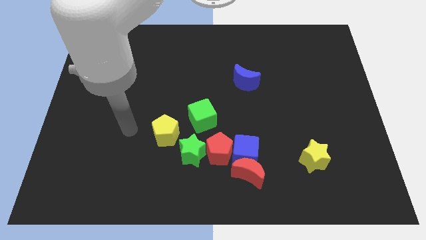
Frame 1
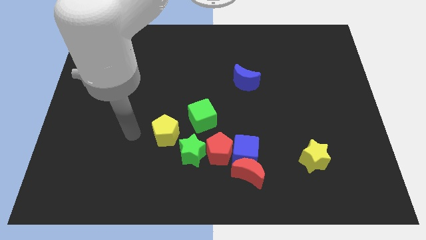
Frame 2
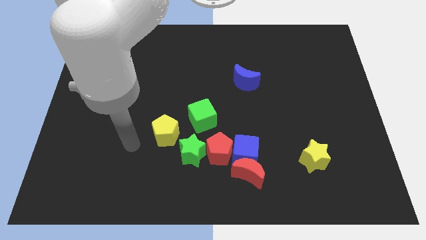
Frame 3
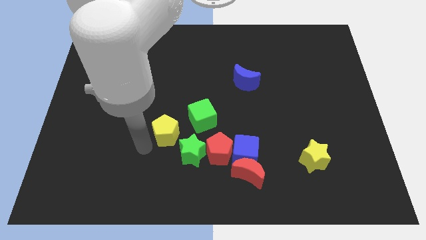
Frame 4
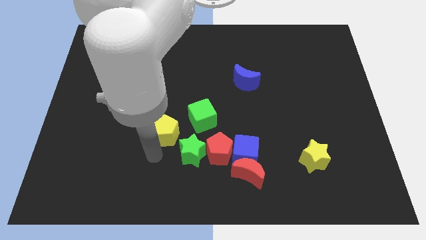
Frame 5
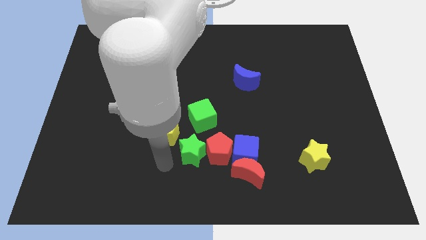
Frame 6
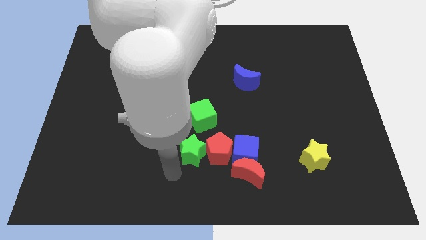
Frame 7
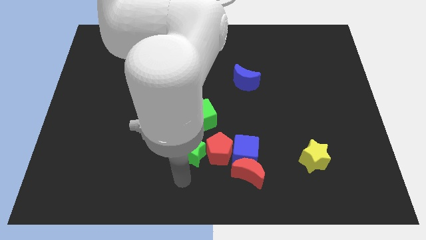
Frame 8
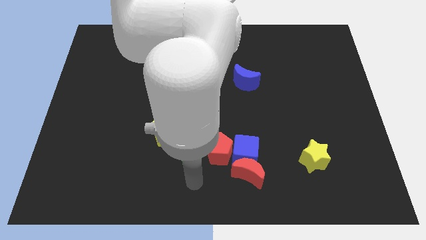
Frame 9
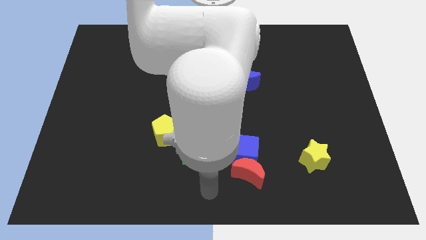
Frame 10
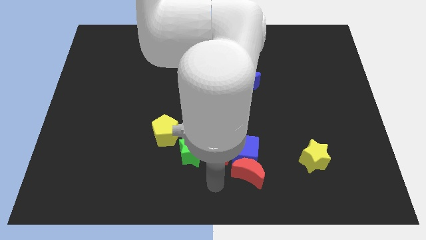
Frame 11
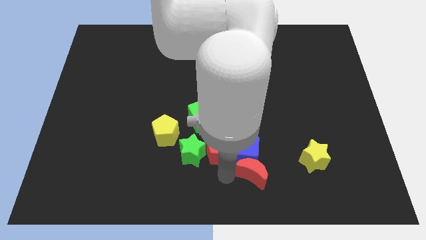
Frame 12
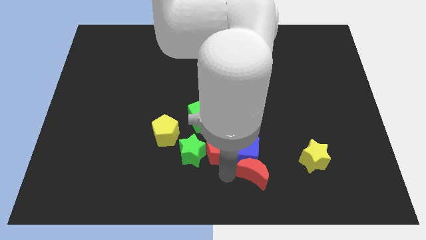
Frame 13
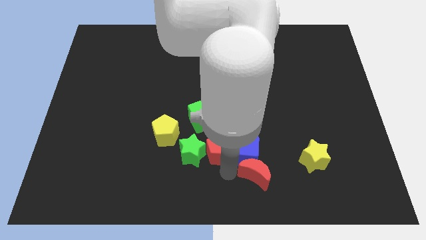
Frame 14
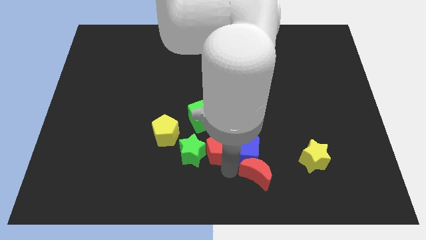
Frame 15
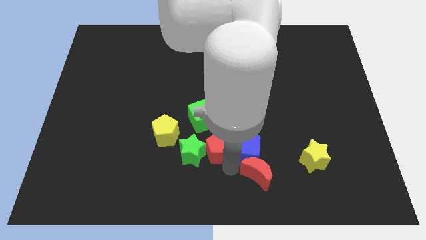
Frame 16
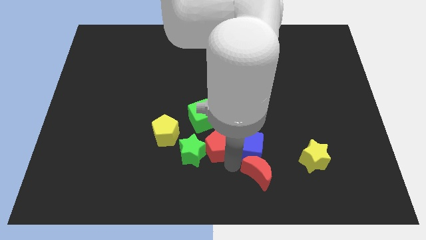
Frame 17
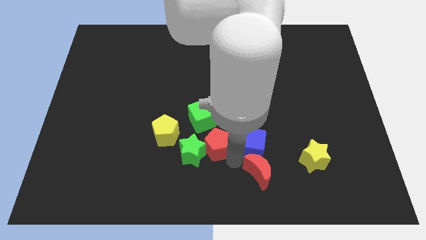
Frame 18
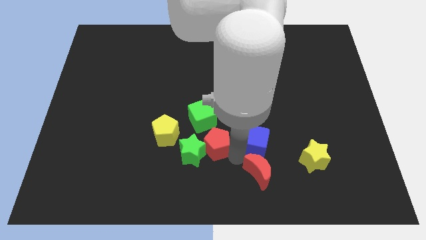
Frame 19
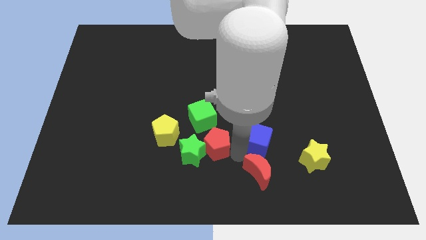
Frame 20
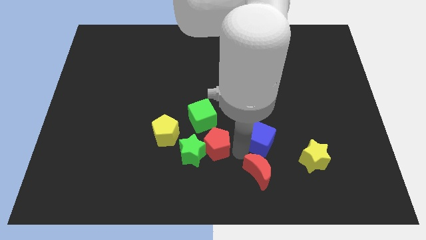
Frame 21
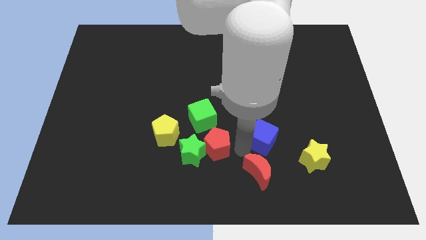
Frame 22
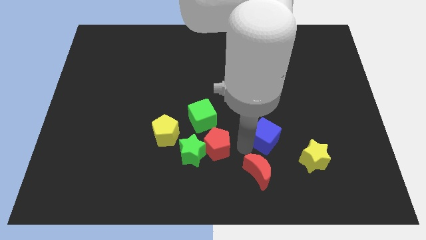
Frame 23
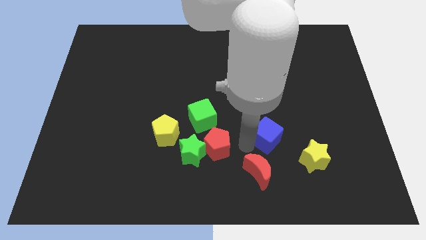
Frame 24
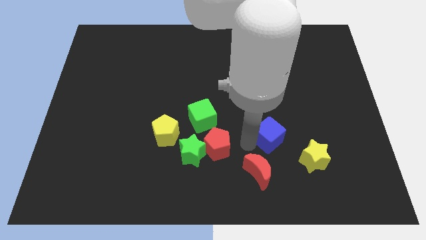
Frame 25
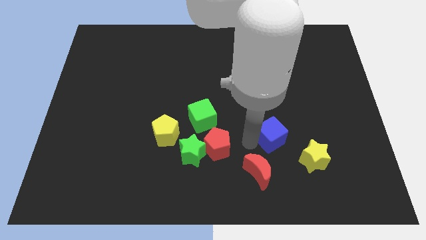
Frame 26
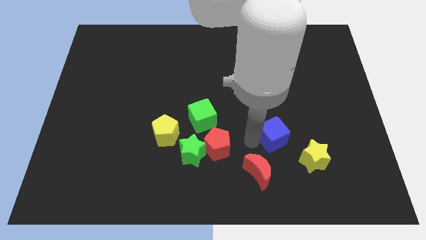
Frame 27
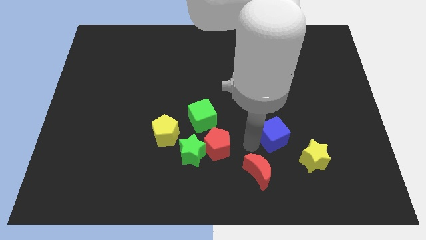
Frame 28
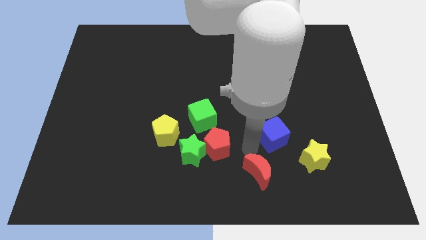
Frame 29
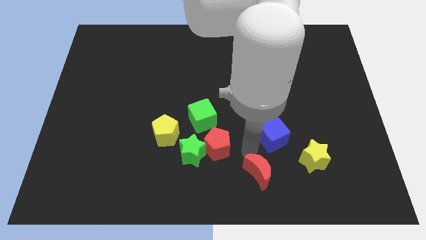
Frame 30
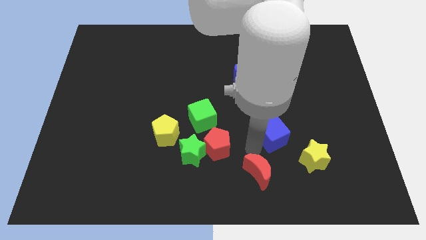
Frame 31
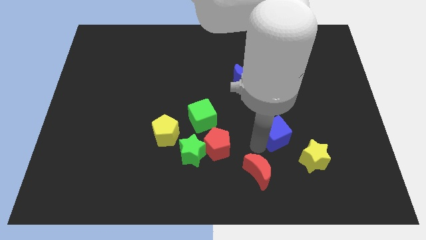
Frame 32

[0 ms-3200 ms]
move the blue cube away from the red moon and red pentagon

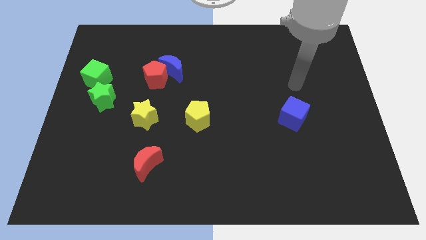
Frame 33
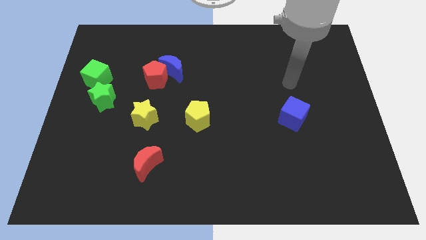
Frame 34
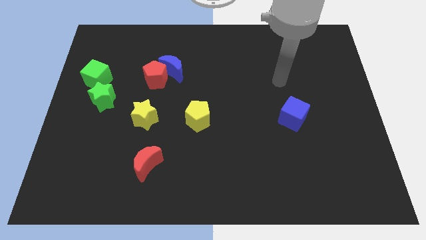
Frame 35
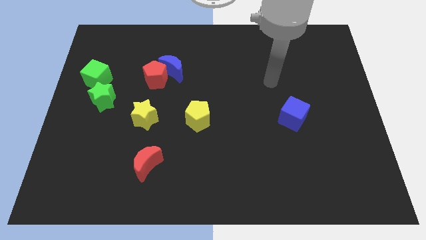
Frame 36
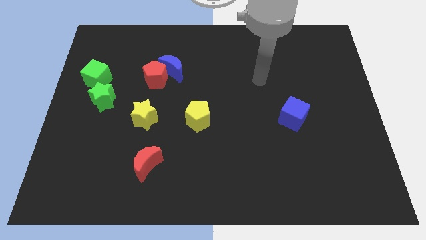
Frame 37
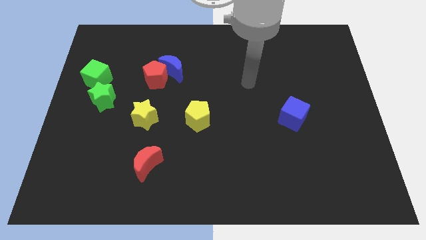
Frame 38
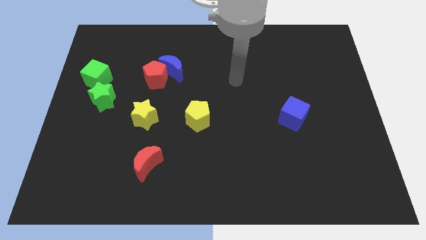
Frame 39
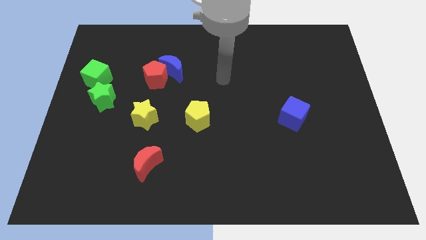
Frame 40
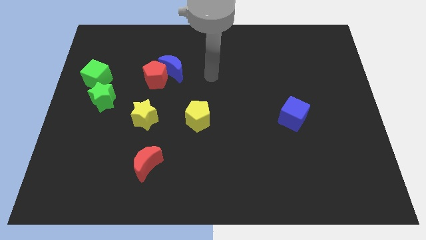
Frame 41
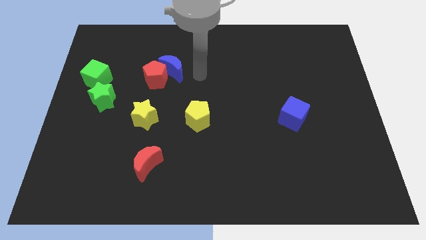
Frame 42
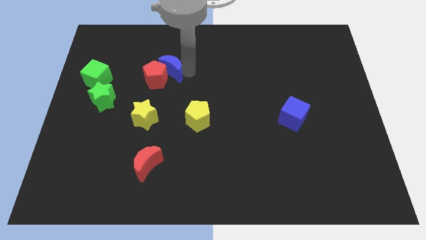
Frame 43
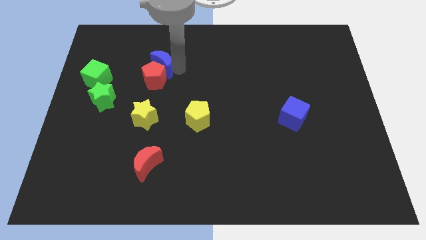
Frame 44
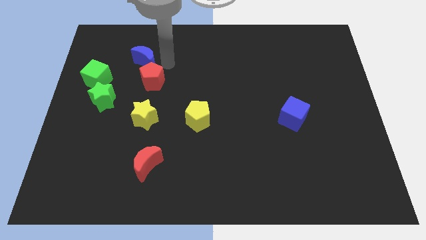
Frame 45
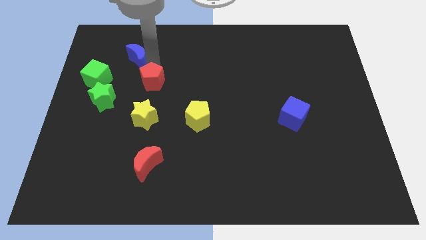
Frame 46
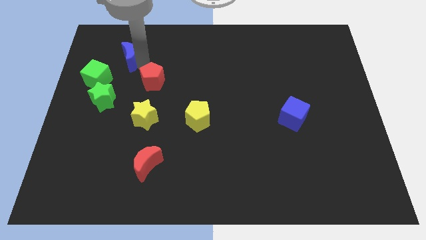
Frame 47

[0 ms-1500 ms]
separate the red pentagon from the blue moon

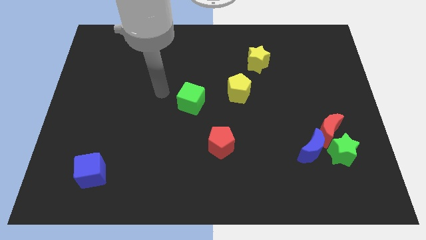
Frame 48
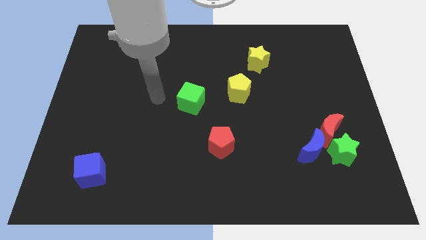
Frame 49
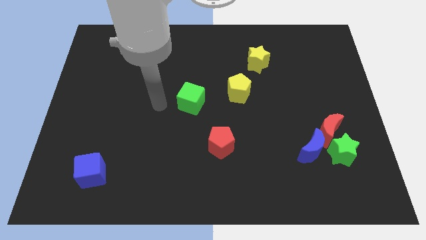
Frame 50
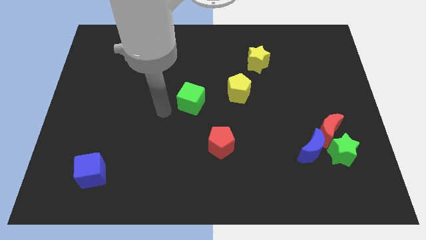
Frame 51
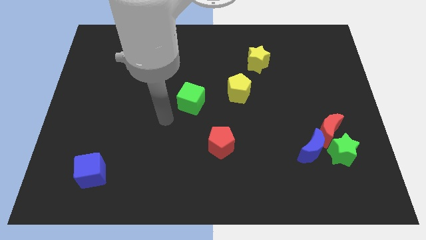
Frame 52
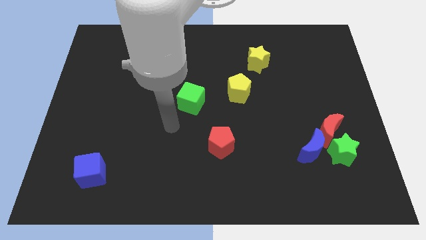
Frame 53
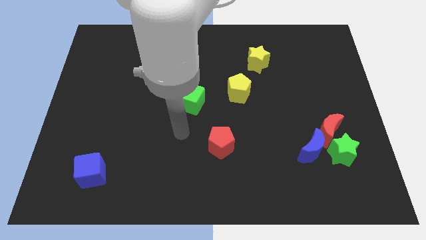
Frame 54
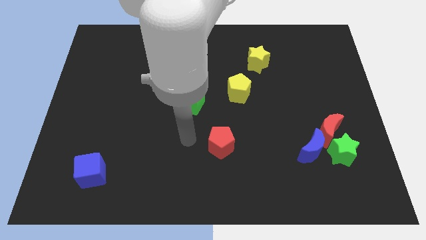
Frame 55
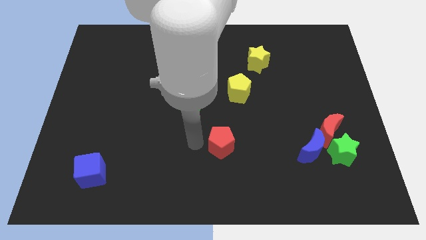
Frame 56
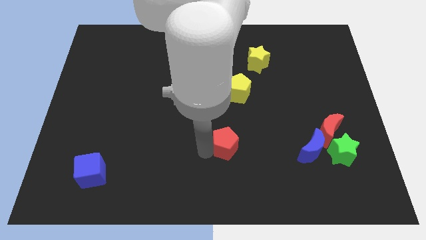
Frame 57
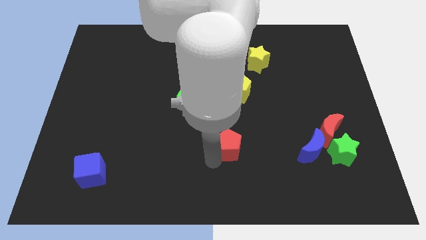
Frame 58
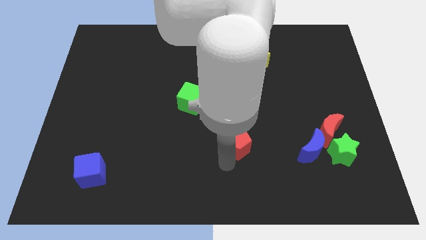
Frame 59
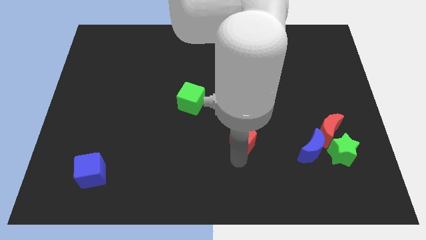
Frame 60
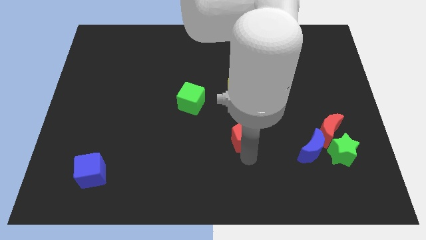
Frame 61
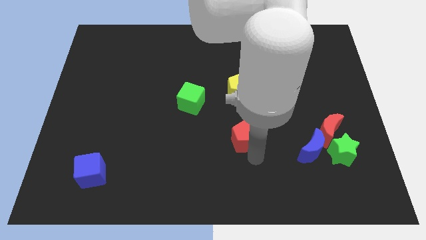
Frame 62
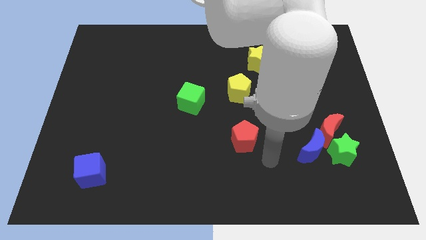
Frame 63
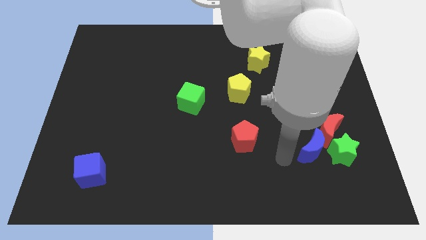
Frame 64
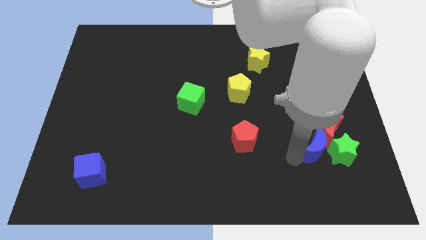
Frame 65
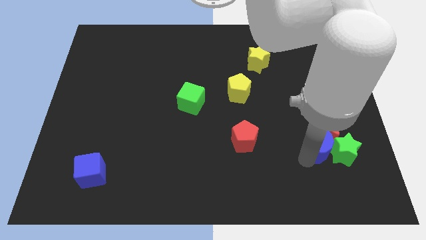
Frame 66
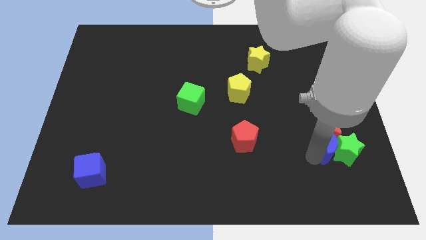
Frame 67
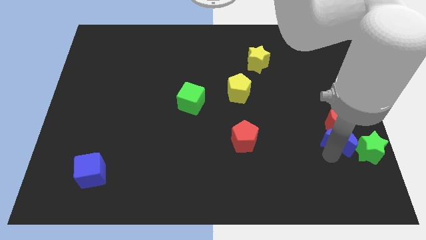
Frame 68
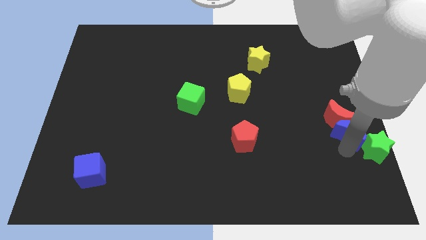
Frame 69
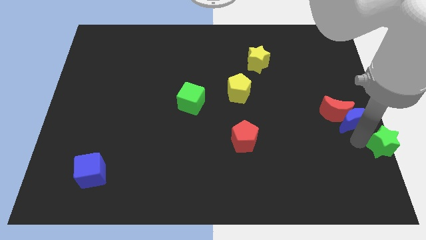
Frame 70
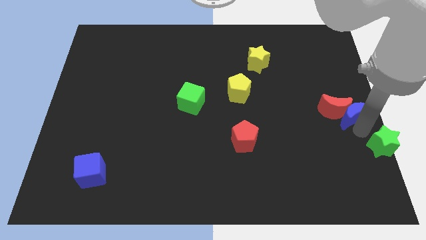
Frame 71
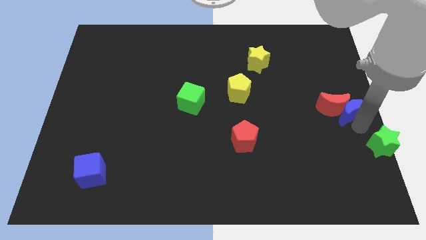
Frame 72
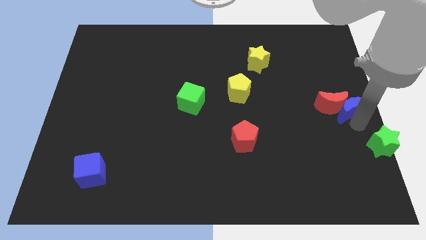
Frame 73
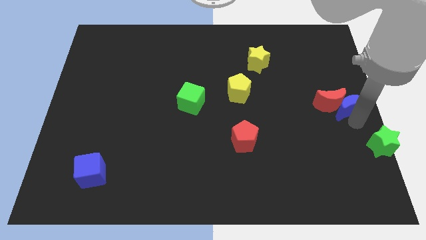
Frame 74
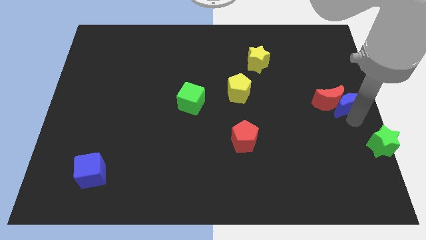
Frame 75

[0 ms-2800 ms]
pull the red moon apart from the green star and blue moon

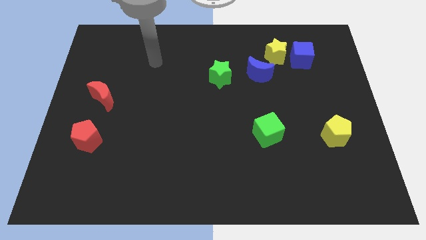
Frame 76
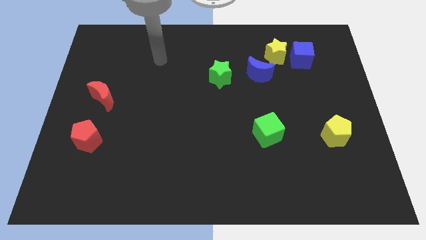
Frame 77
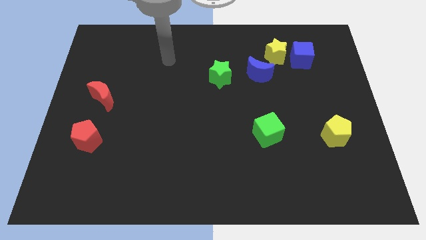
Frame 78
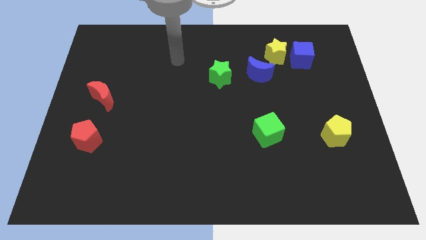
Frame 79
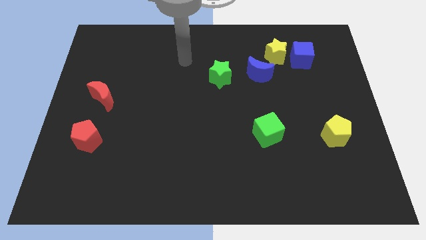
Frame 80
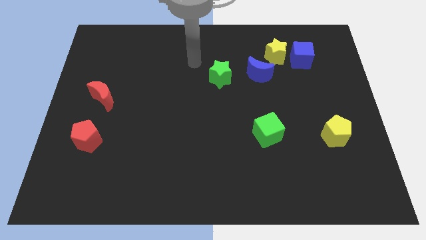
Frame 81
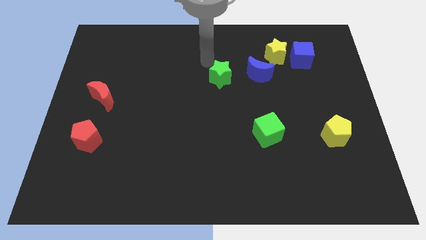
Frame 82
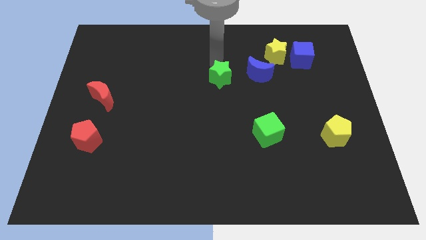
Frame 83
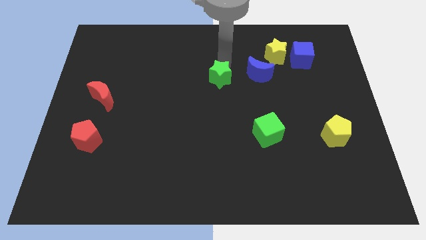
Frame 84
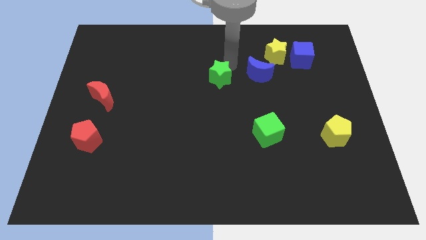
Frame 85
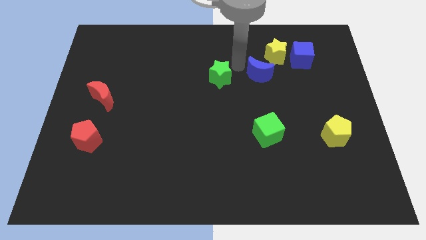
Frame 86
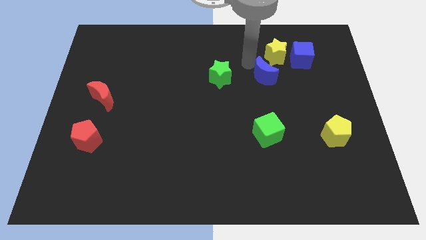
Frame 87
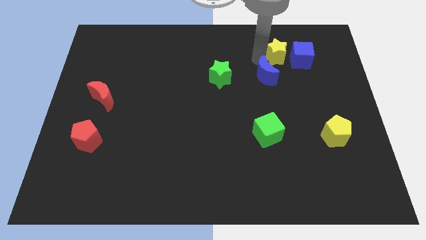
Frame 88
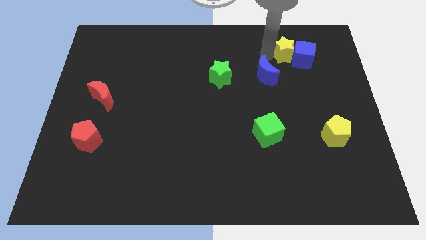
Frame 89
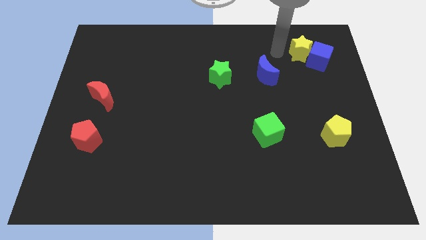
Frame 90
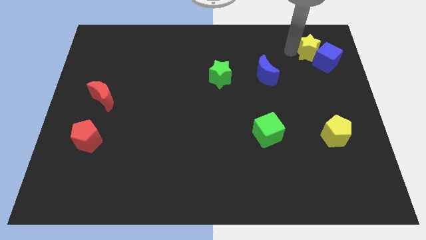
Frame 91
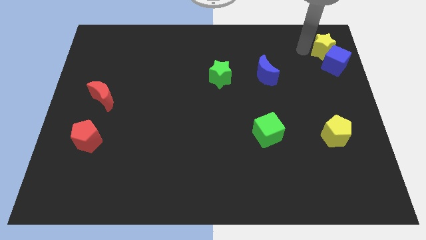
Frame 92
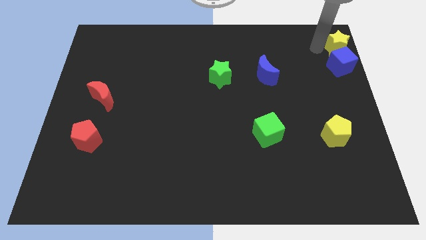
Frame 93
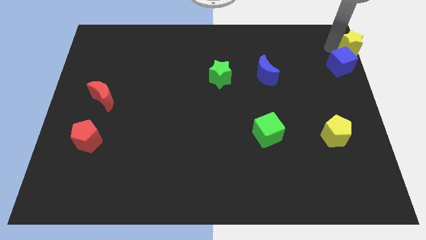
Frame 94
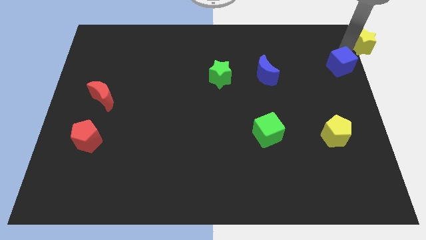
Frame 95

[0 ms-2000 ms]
pull the blue cube apart from the yellow star
